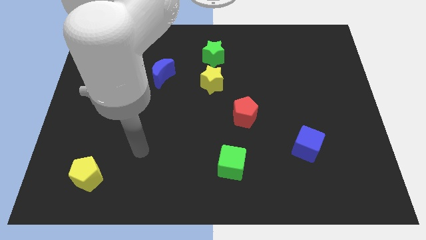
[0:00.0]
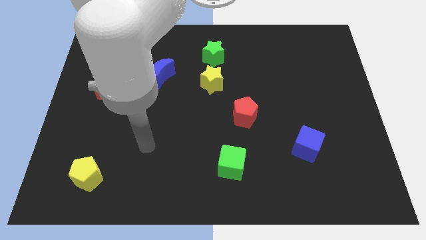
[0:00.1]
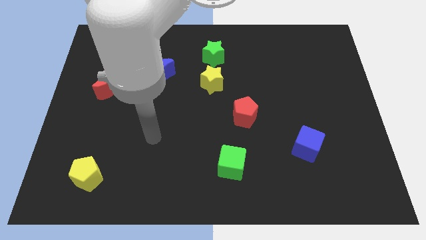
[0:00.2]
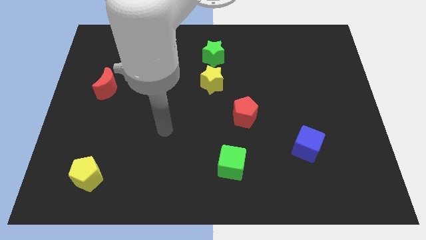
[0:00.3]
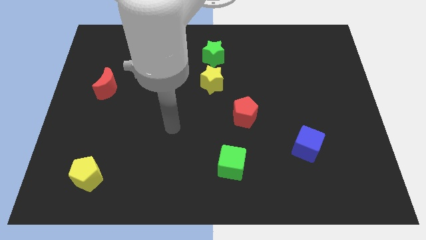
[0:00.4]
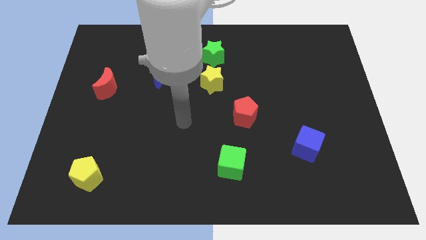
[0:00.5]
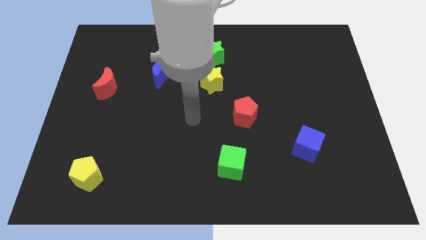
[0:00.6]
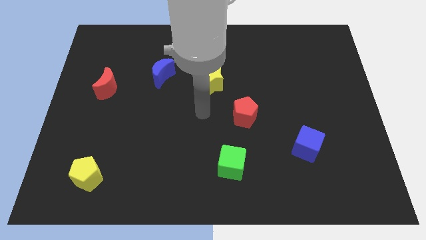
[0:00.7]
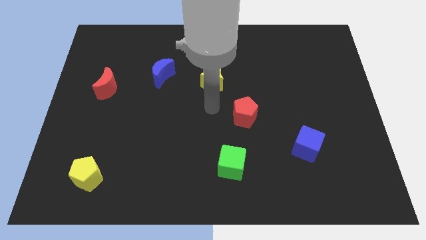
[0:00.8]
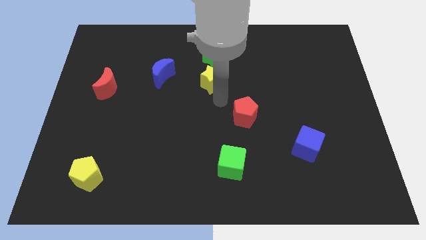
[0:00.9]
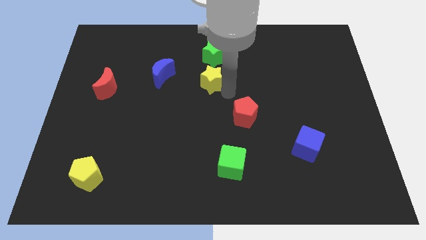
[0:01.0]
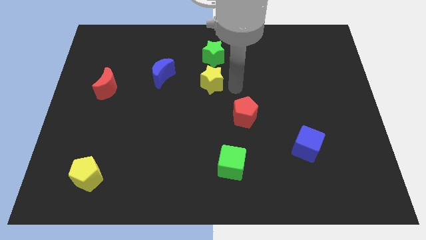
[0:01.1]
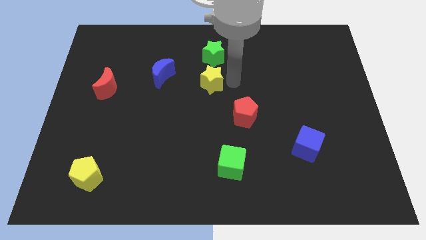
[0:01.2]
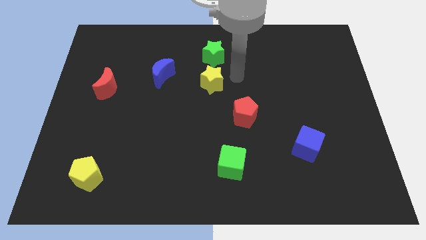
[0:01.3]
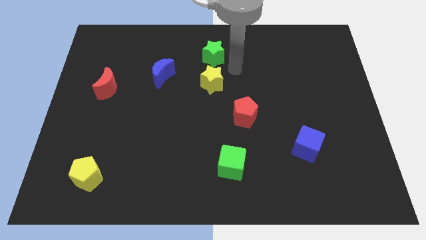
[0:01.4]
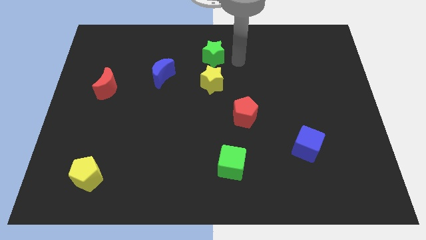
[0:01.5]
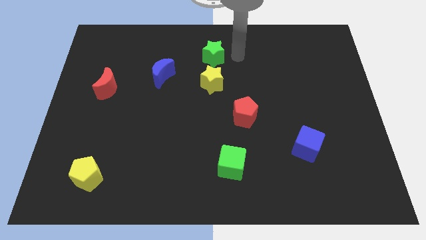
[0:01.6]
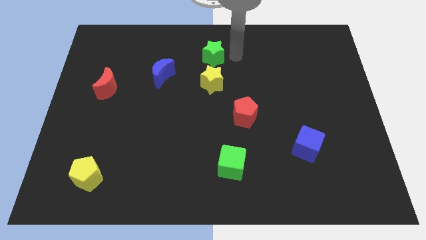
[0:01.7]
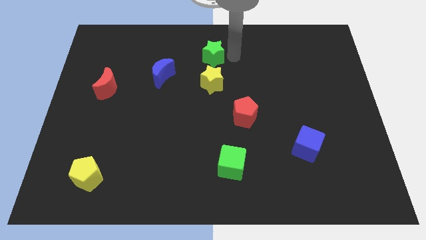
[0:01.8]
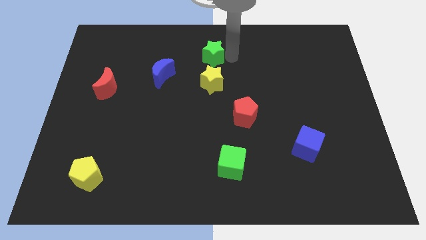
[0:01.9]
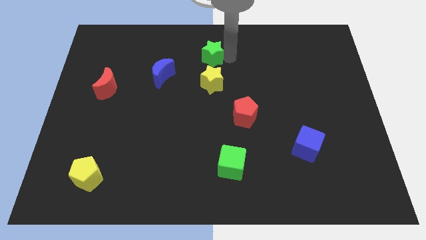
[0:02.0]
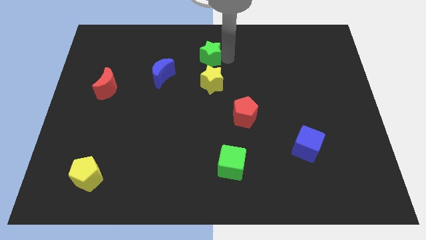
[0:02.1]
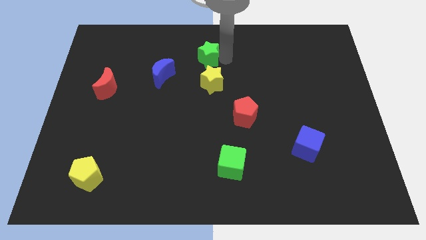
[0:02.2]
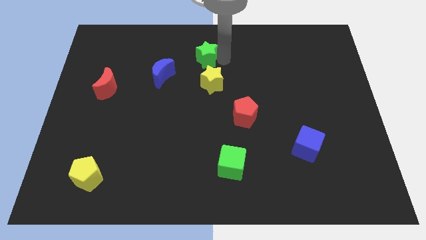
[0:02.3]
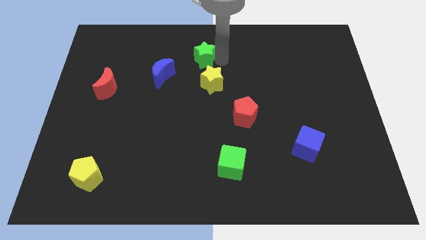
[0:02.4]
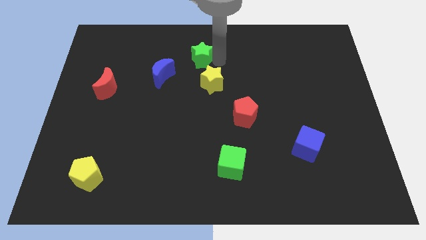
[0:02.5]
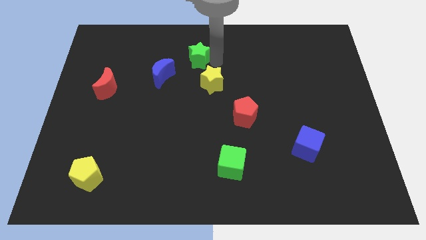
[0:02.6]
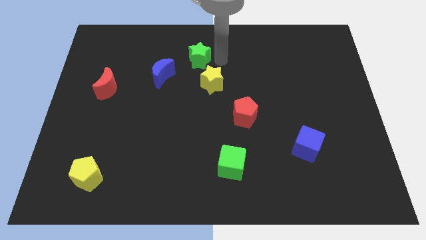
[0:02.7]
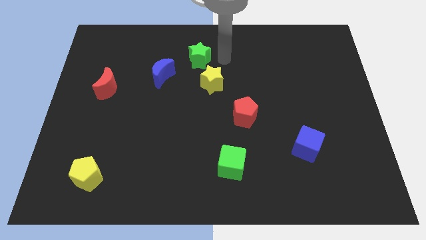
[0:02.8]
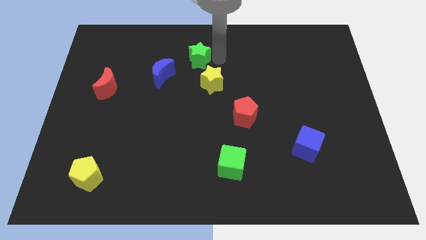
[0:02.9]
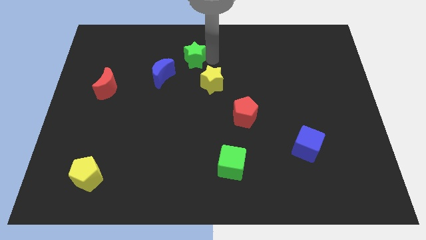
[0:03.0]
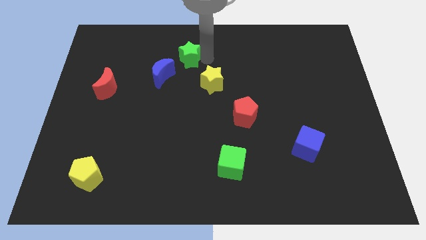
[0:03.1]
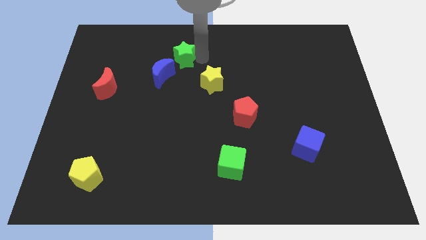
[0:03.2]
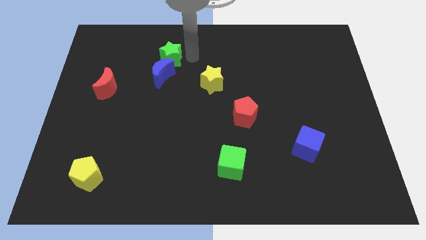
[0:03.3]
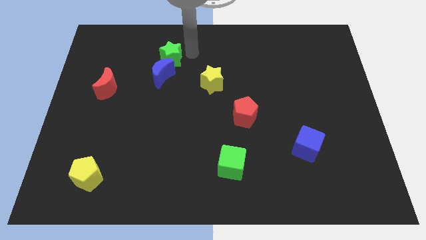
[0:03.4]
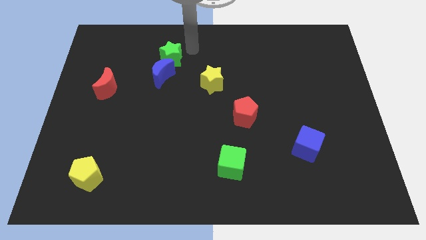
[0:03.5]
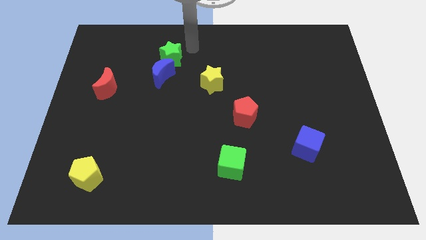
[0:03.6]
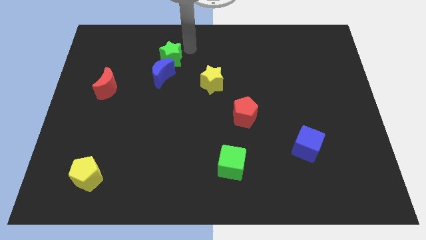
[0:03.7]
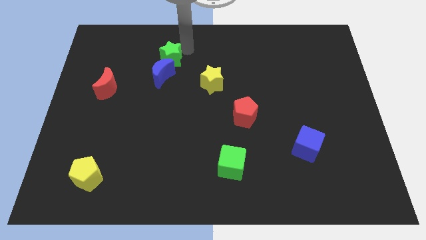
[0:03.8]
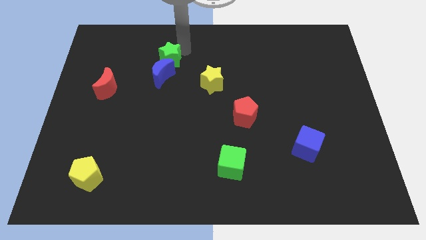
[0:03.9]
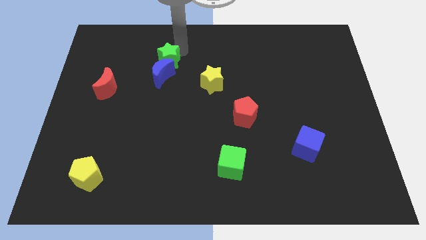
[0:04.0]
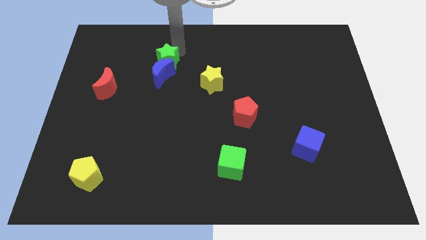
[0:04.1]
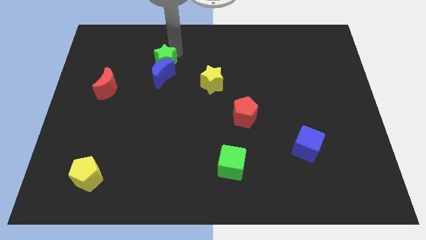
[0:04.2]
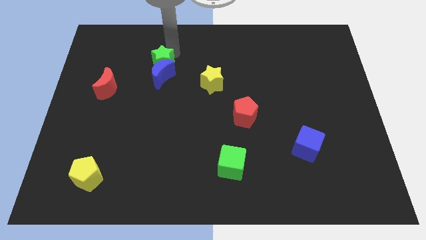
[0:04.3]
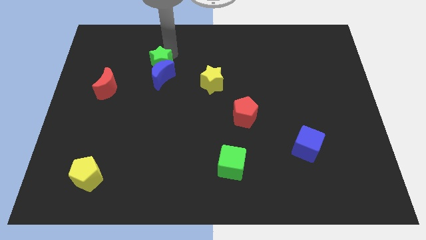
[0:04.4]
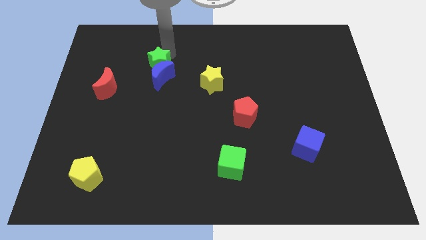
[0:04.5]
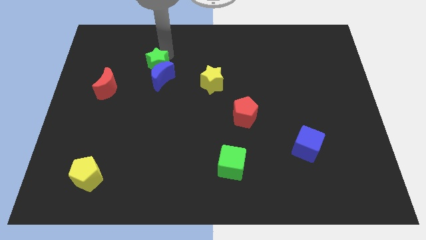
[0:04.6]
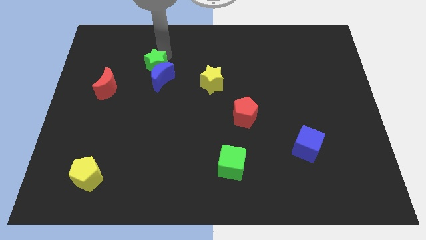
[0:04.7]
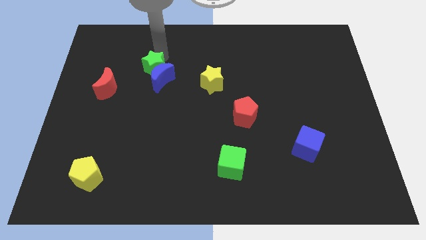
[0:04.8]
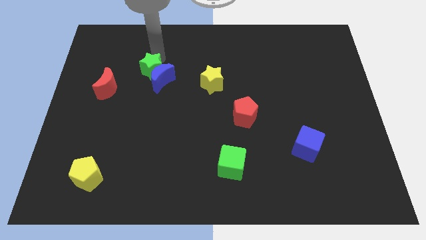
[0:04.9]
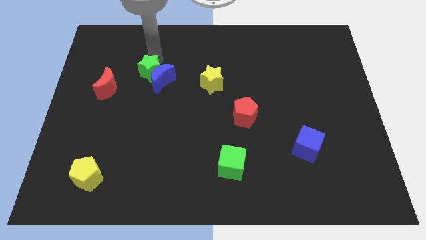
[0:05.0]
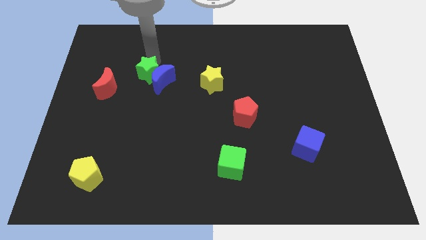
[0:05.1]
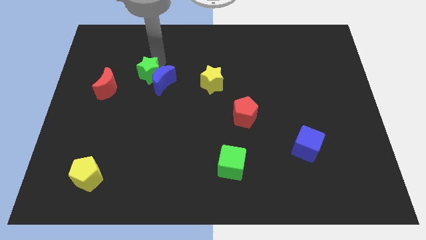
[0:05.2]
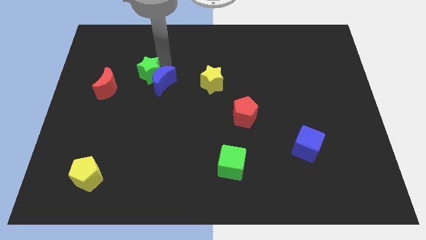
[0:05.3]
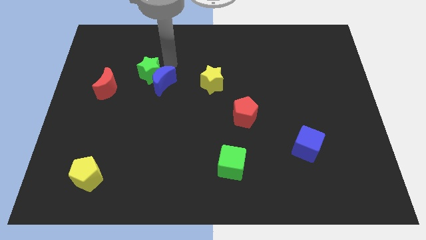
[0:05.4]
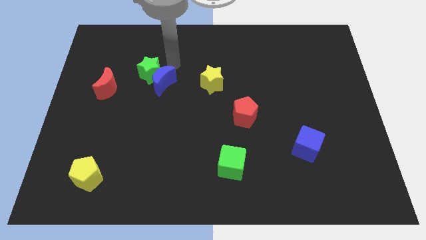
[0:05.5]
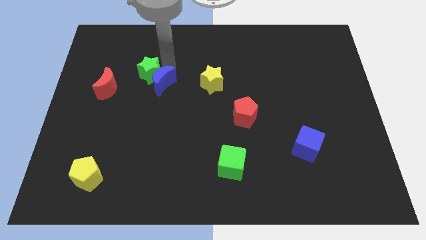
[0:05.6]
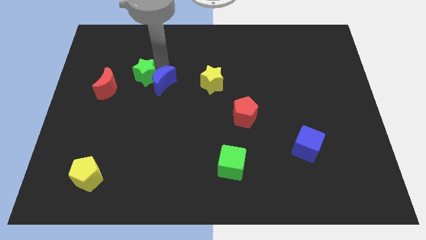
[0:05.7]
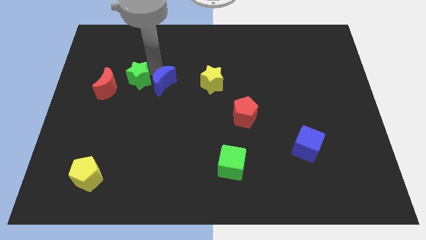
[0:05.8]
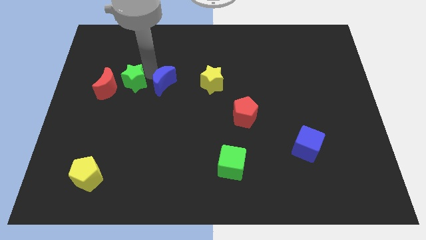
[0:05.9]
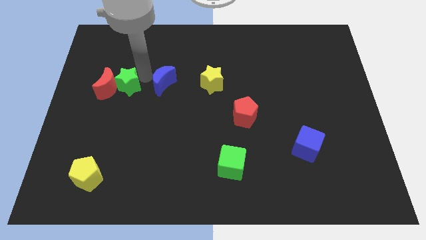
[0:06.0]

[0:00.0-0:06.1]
put the green star towards the red moon

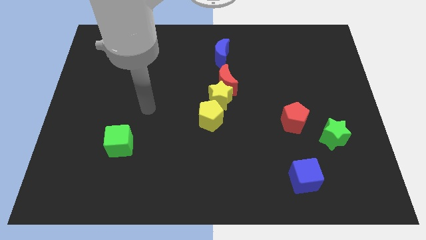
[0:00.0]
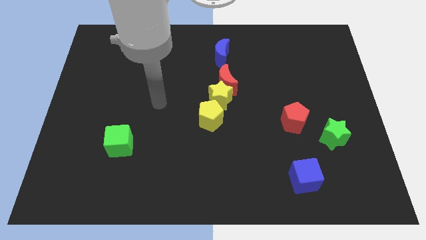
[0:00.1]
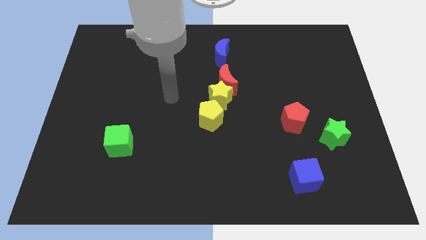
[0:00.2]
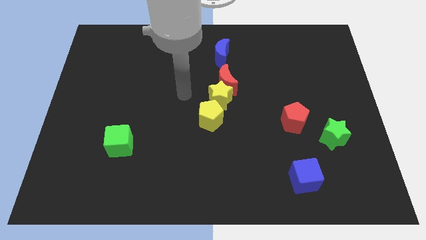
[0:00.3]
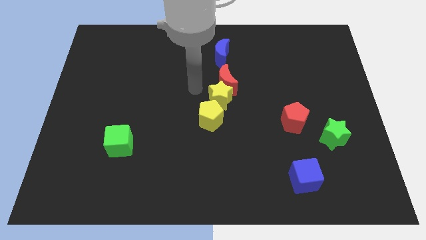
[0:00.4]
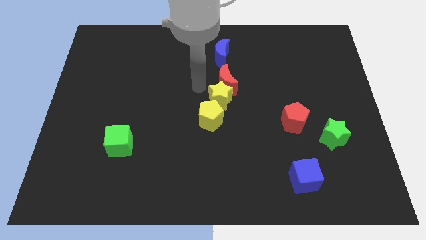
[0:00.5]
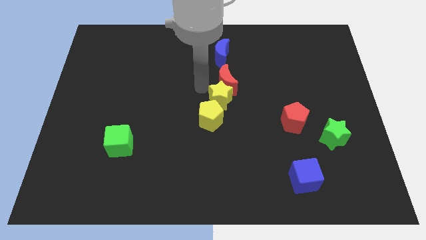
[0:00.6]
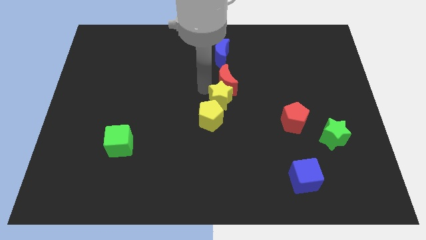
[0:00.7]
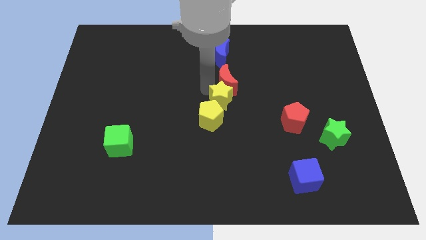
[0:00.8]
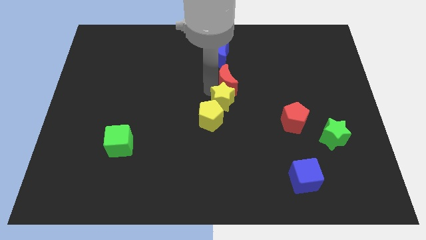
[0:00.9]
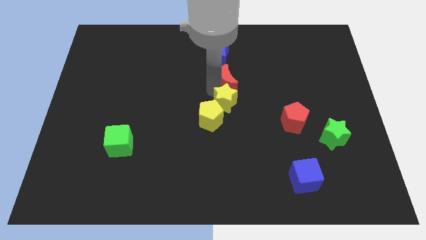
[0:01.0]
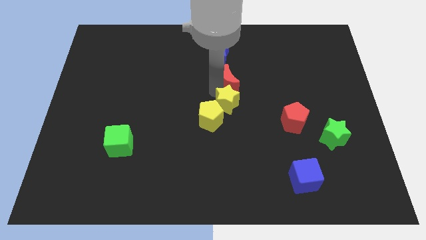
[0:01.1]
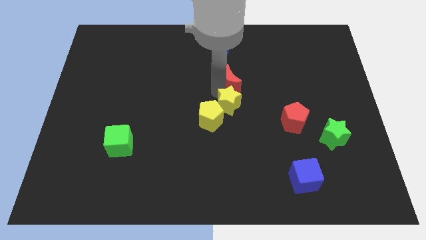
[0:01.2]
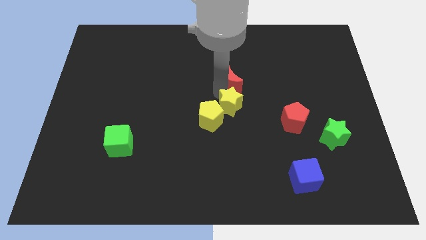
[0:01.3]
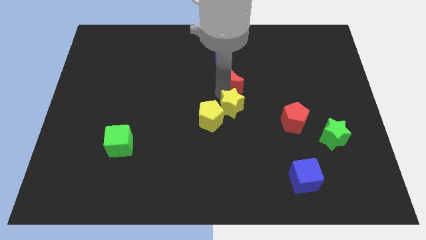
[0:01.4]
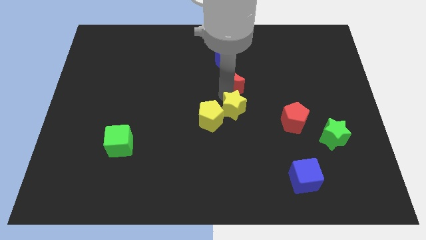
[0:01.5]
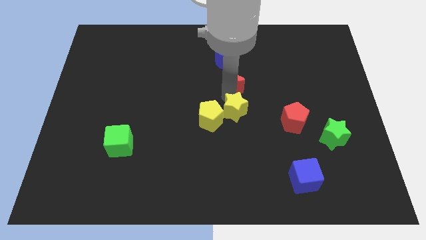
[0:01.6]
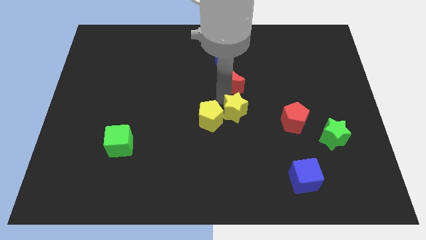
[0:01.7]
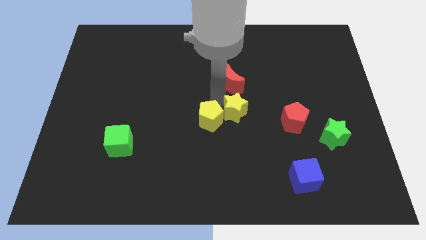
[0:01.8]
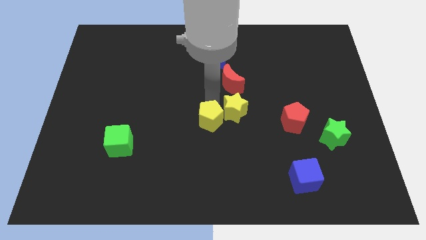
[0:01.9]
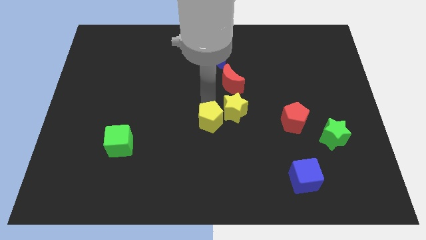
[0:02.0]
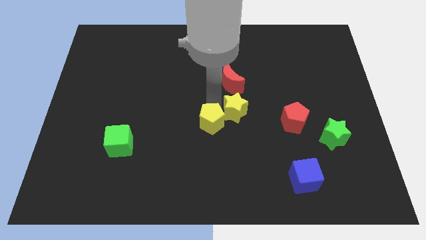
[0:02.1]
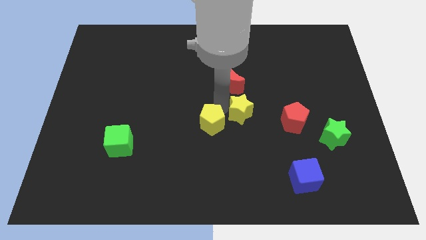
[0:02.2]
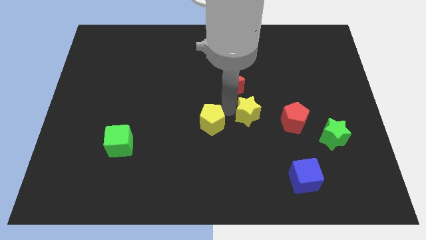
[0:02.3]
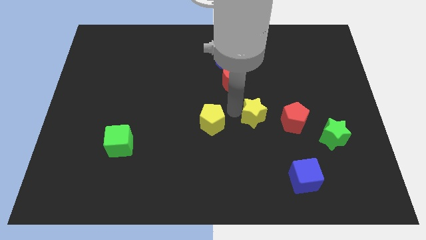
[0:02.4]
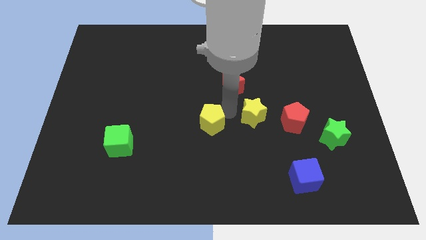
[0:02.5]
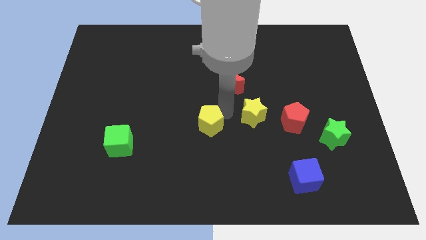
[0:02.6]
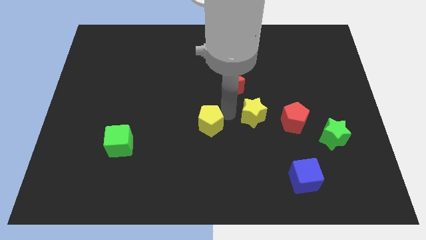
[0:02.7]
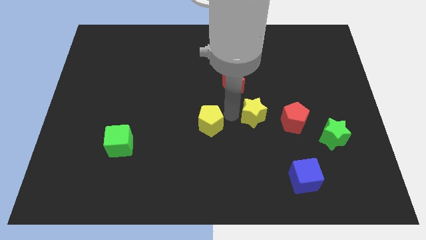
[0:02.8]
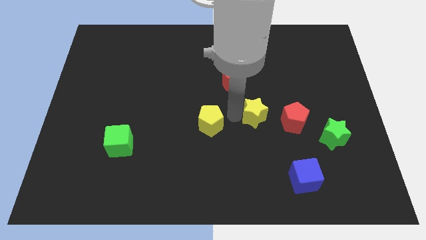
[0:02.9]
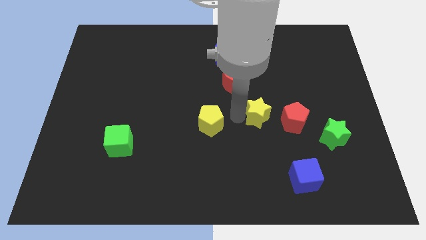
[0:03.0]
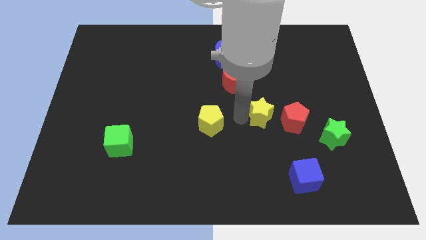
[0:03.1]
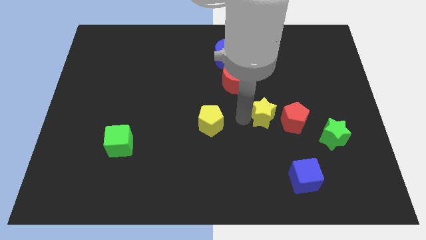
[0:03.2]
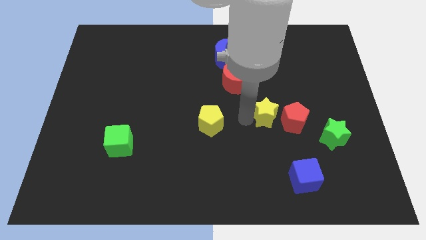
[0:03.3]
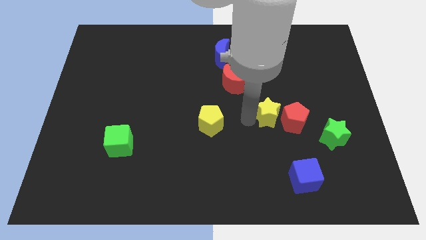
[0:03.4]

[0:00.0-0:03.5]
push the yellow star next to the red pentagon
